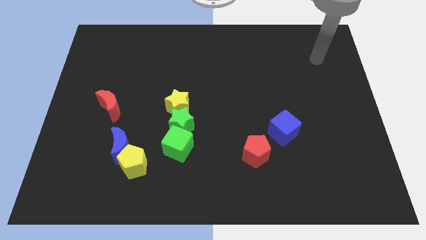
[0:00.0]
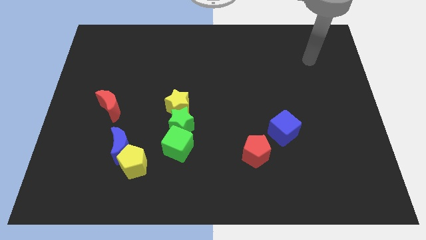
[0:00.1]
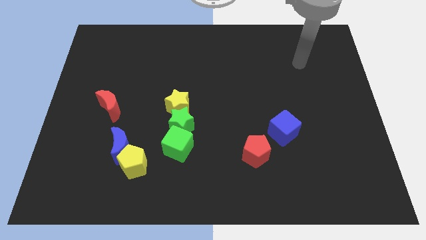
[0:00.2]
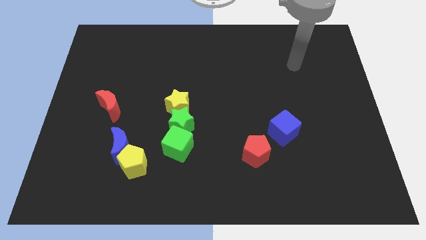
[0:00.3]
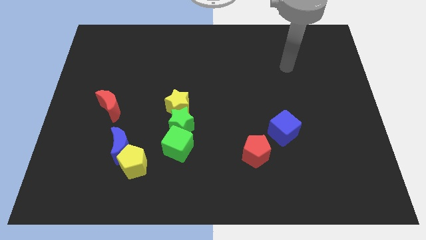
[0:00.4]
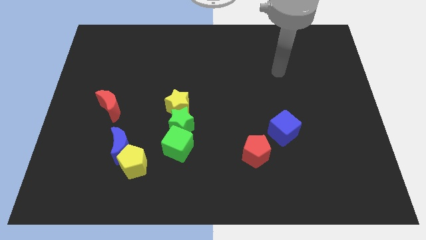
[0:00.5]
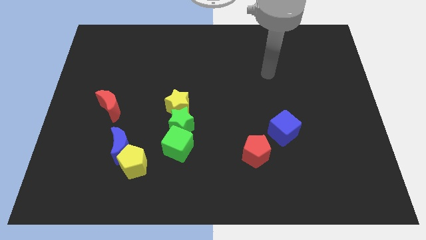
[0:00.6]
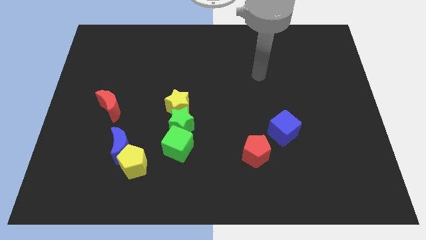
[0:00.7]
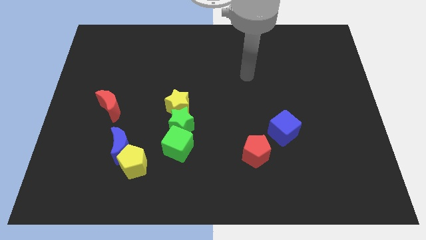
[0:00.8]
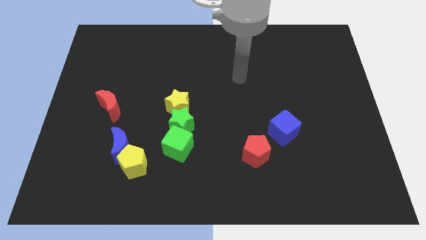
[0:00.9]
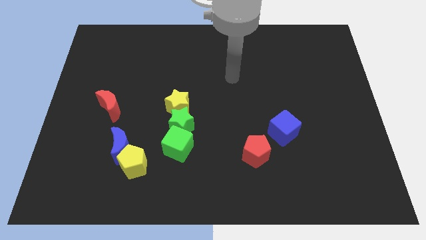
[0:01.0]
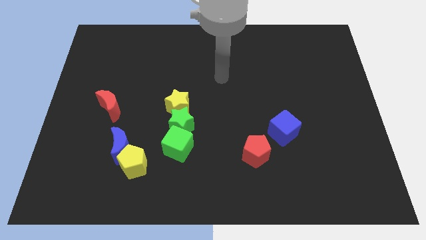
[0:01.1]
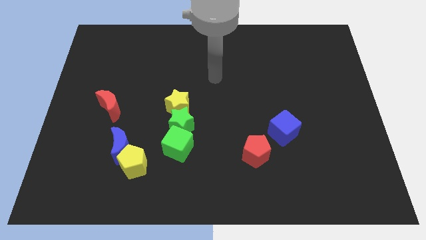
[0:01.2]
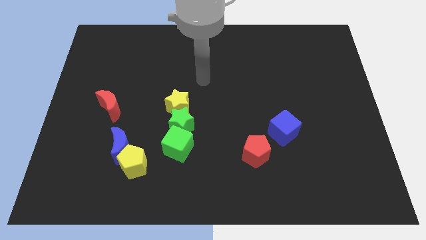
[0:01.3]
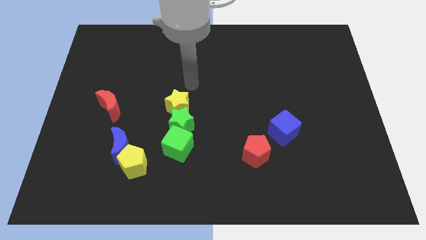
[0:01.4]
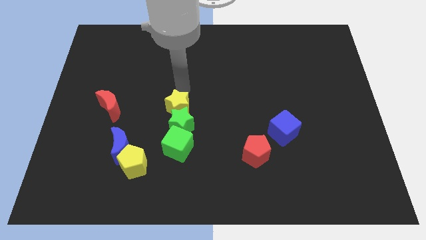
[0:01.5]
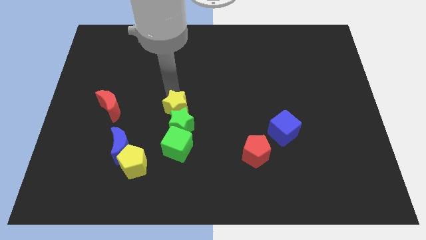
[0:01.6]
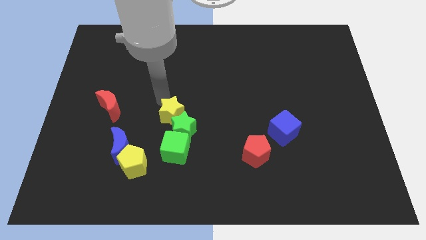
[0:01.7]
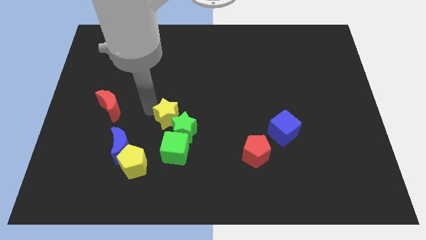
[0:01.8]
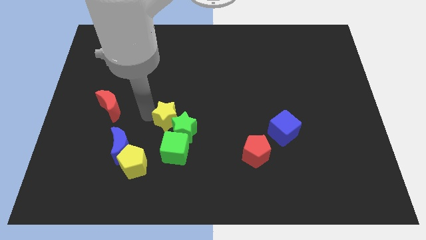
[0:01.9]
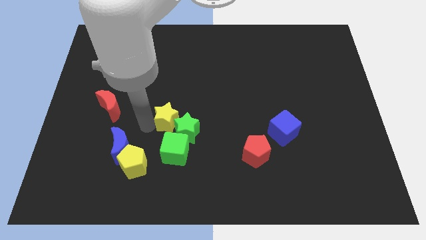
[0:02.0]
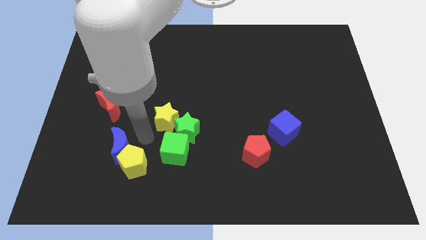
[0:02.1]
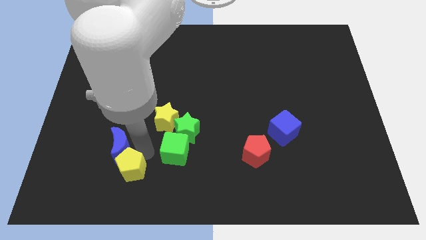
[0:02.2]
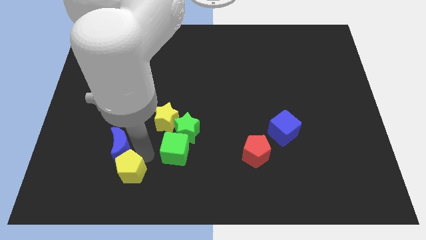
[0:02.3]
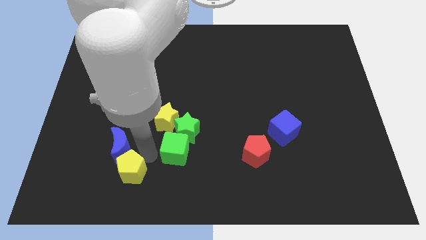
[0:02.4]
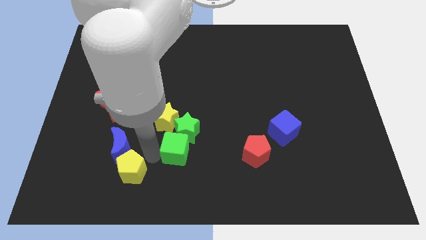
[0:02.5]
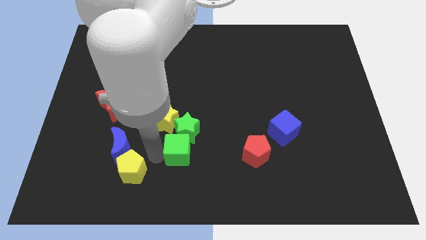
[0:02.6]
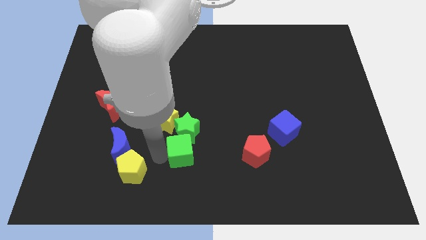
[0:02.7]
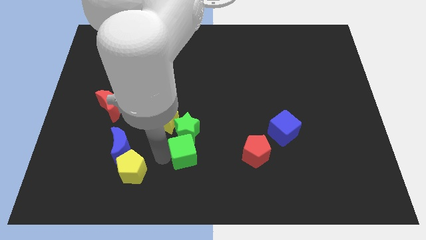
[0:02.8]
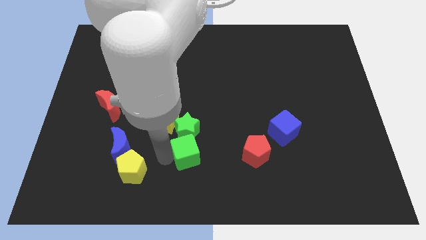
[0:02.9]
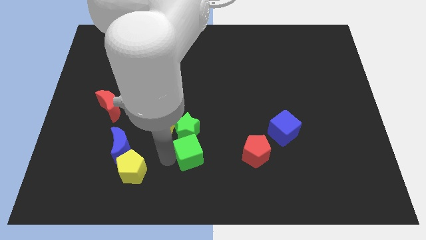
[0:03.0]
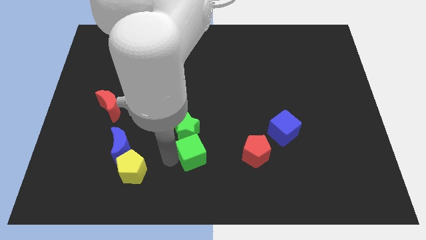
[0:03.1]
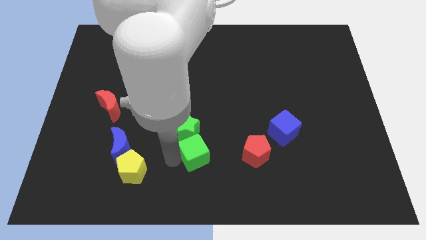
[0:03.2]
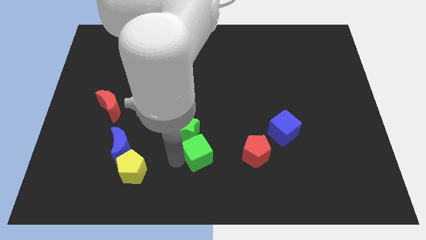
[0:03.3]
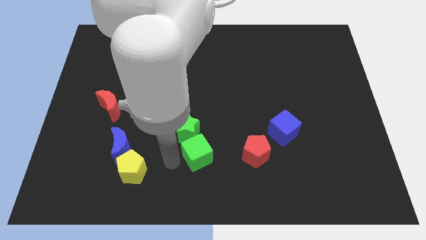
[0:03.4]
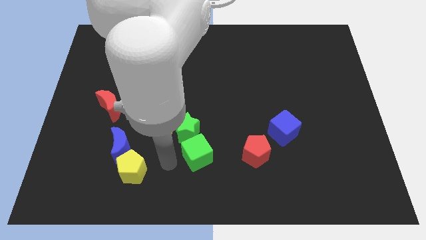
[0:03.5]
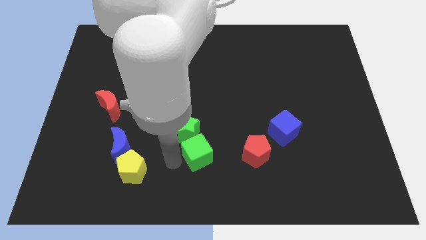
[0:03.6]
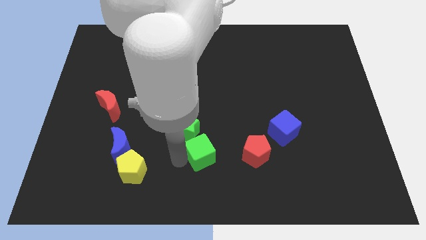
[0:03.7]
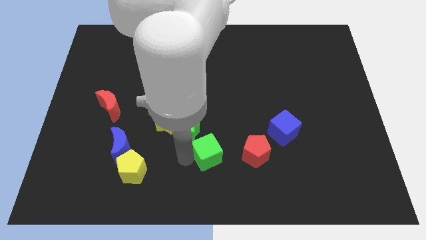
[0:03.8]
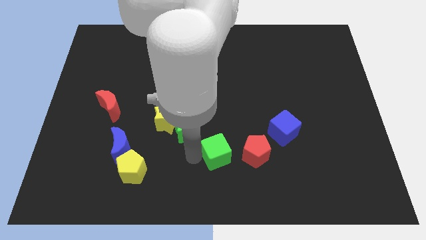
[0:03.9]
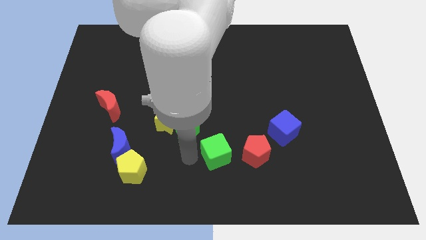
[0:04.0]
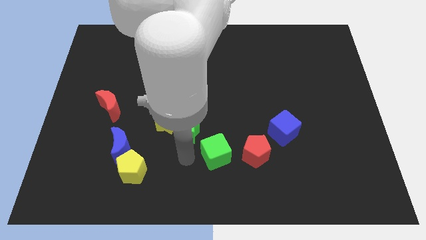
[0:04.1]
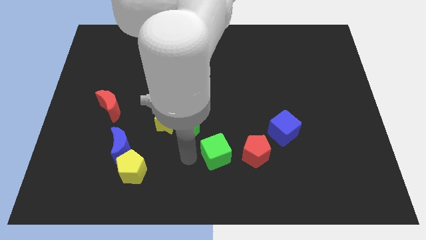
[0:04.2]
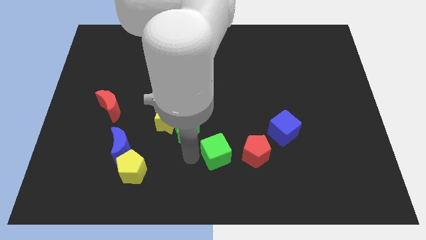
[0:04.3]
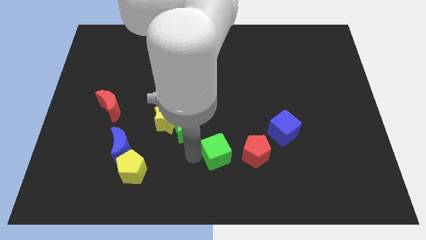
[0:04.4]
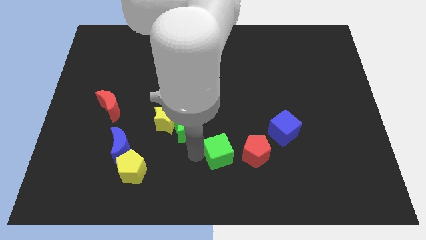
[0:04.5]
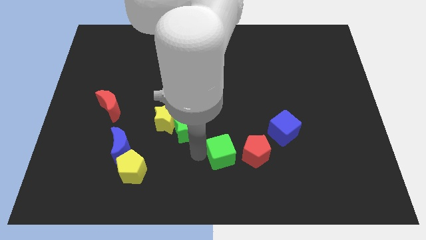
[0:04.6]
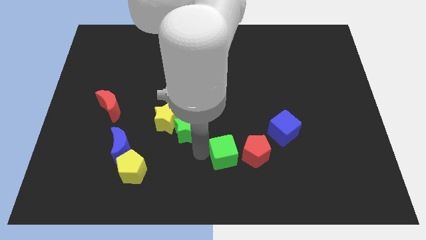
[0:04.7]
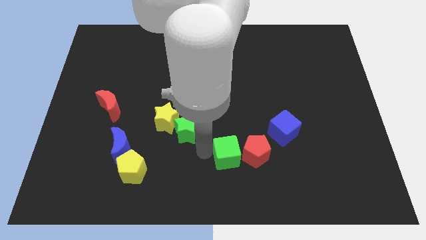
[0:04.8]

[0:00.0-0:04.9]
slide the green cube next to the red pentagon

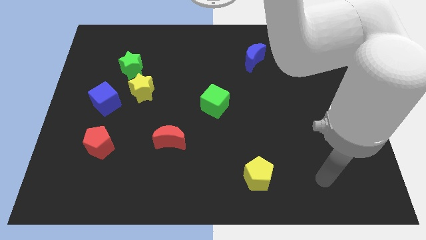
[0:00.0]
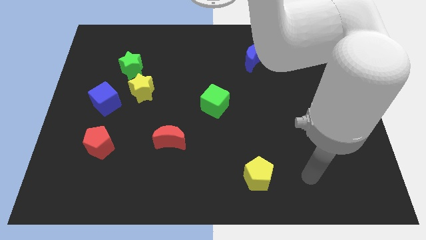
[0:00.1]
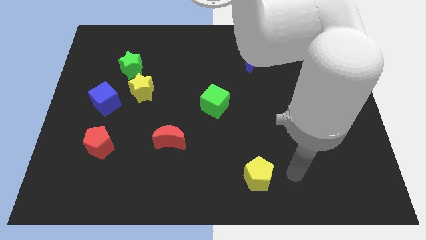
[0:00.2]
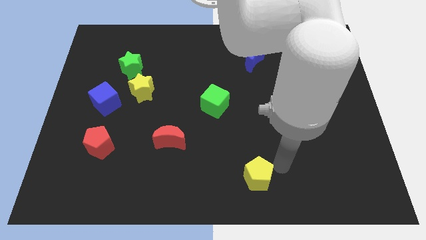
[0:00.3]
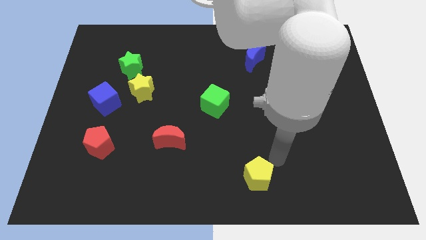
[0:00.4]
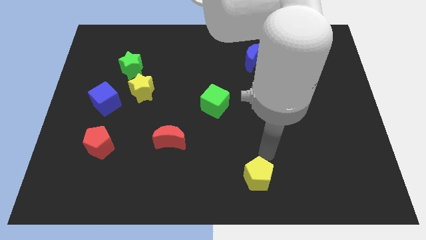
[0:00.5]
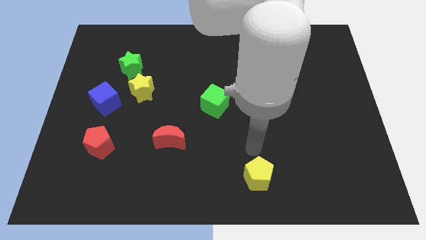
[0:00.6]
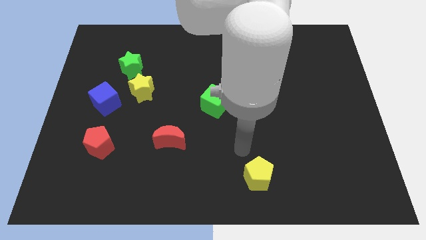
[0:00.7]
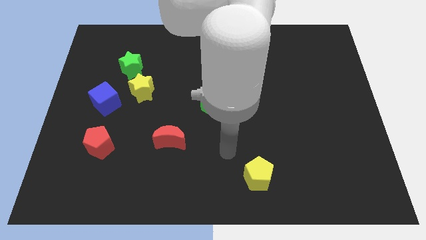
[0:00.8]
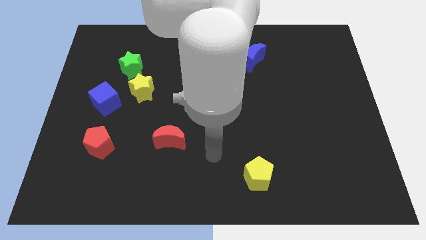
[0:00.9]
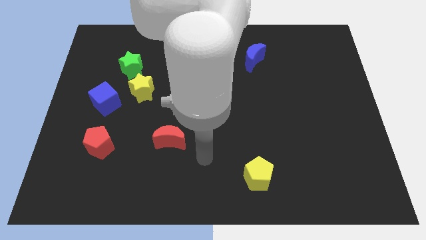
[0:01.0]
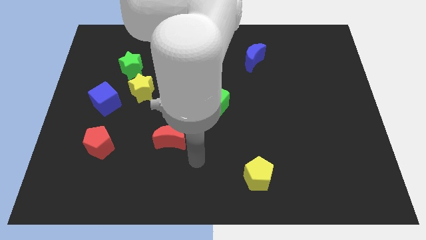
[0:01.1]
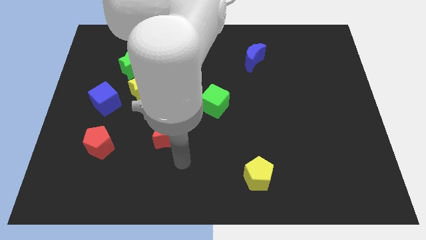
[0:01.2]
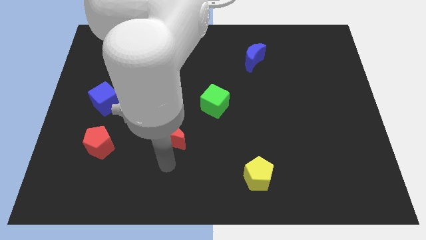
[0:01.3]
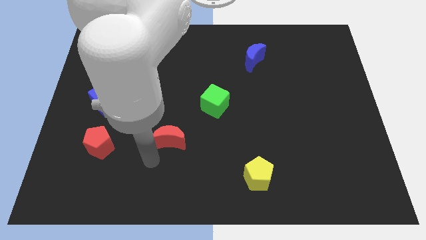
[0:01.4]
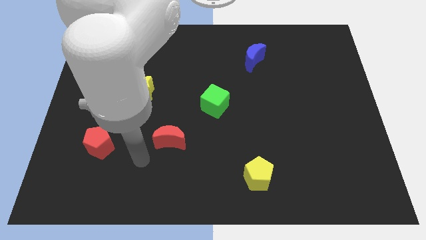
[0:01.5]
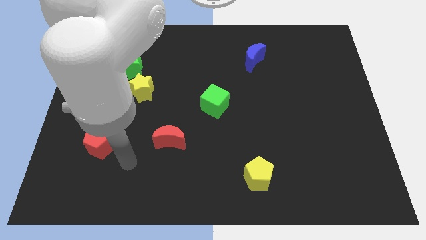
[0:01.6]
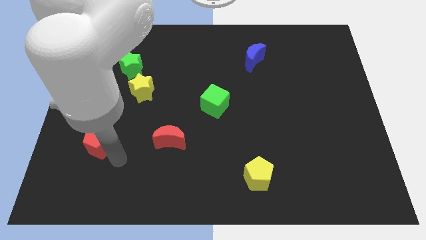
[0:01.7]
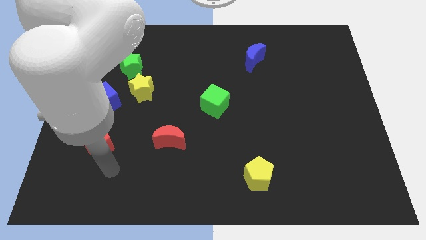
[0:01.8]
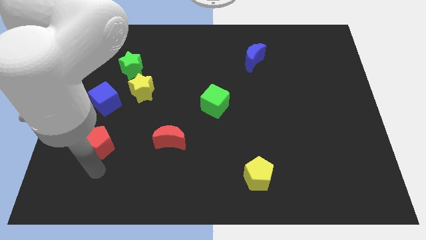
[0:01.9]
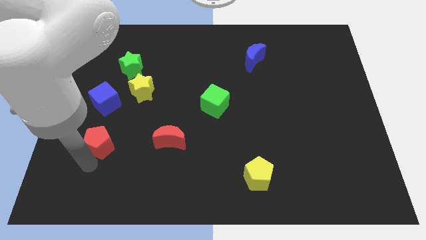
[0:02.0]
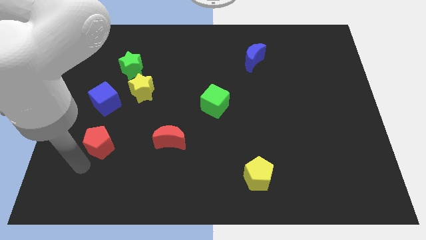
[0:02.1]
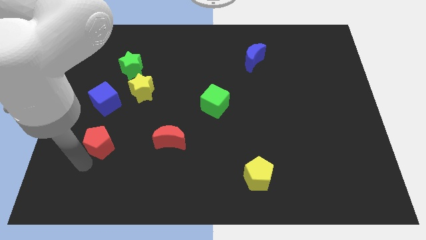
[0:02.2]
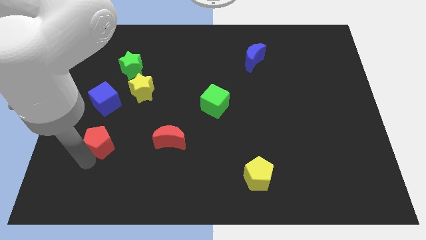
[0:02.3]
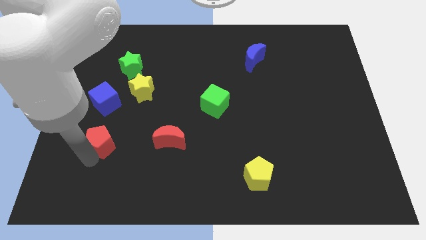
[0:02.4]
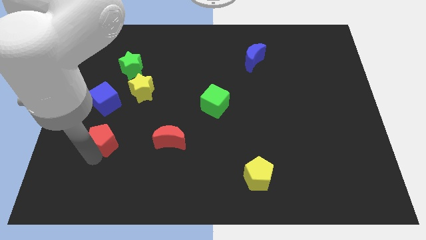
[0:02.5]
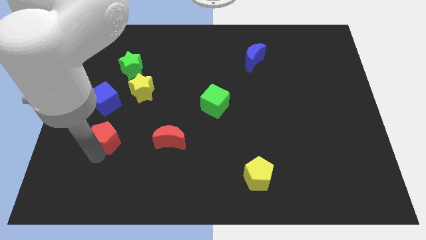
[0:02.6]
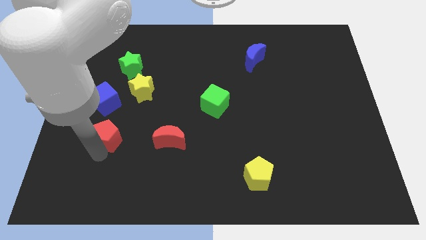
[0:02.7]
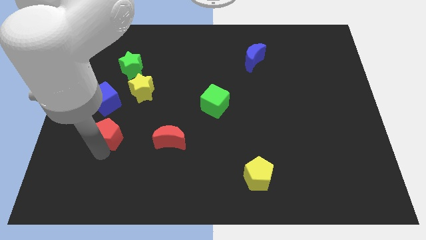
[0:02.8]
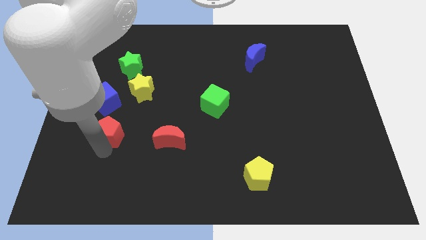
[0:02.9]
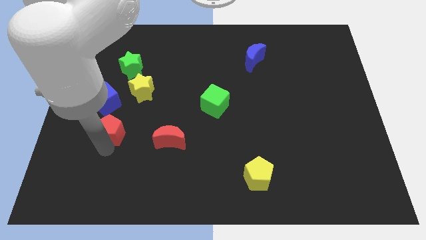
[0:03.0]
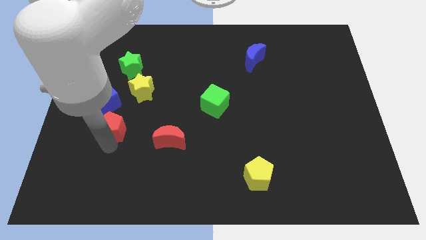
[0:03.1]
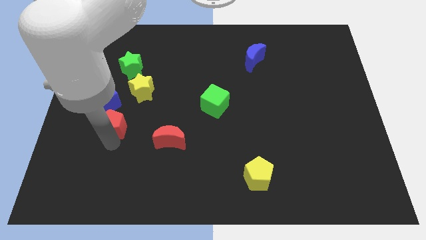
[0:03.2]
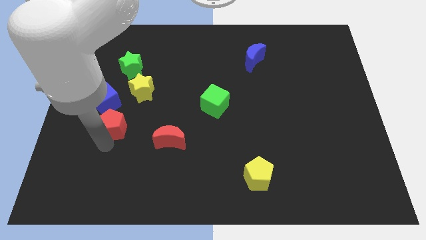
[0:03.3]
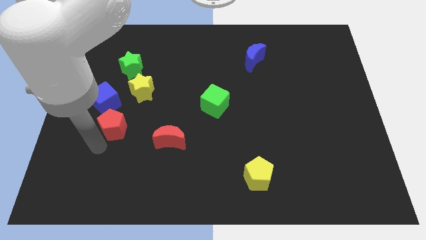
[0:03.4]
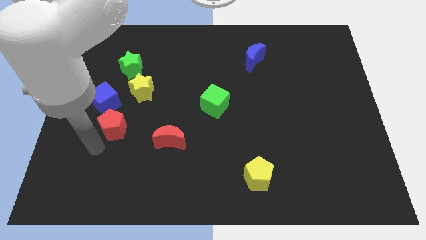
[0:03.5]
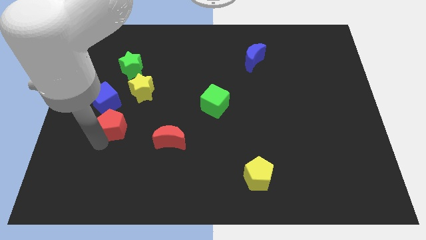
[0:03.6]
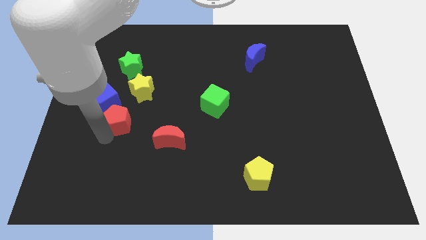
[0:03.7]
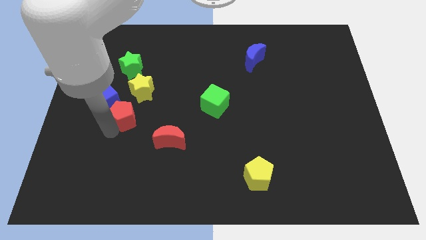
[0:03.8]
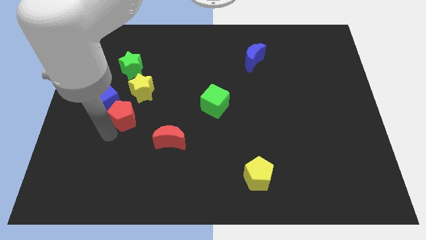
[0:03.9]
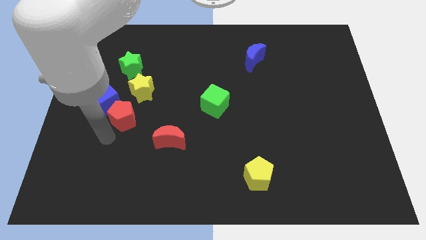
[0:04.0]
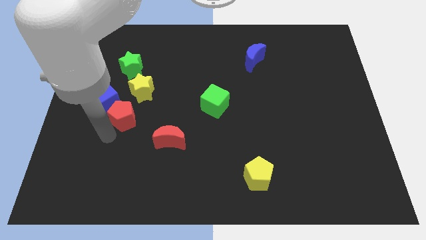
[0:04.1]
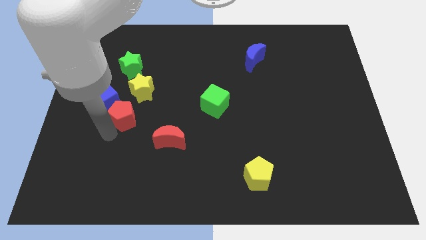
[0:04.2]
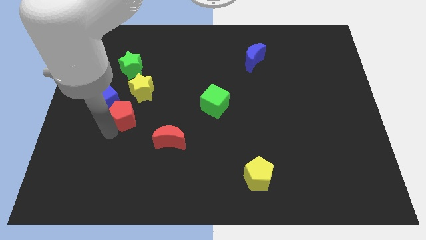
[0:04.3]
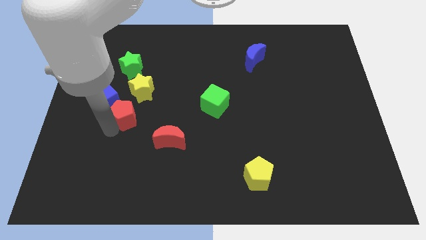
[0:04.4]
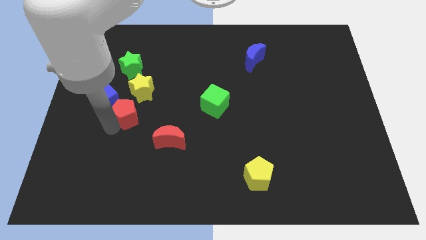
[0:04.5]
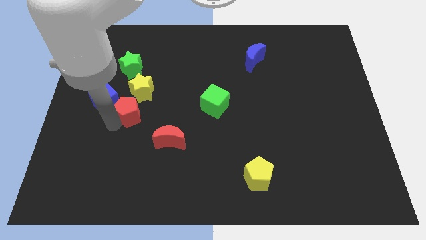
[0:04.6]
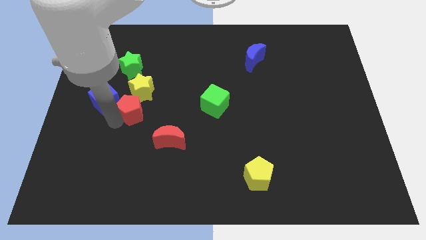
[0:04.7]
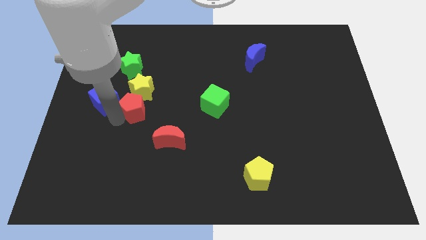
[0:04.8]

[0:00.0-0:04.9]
push the red pentagon next to the yellow star
